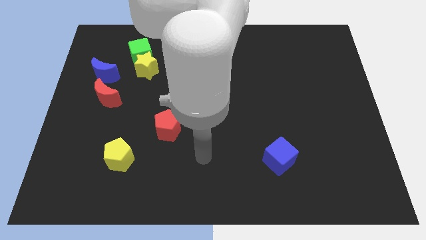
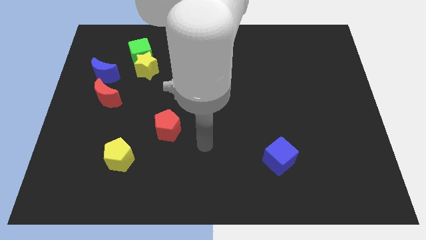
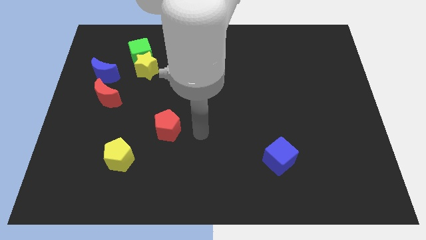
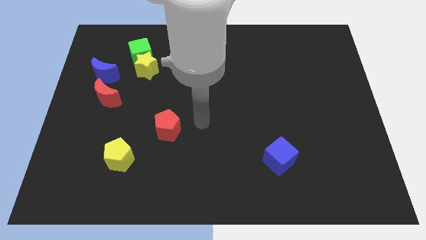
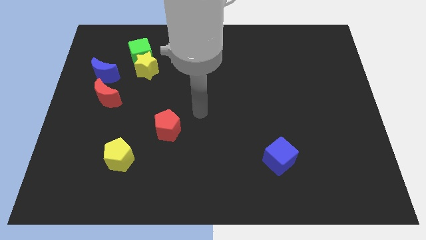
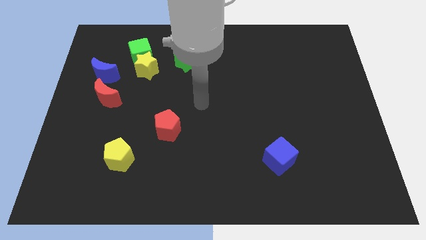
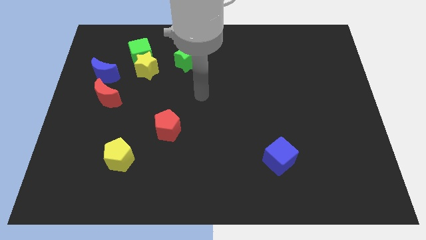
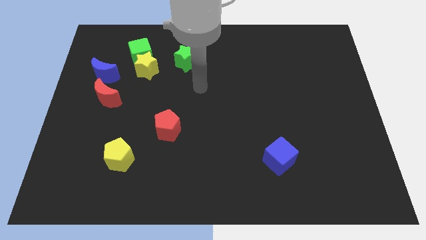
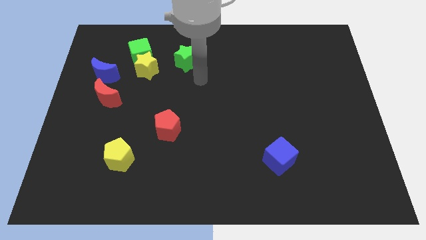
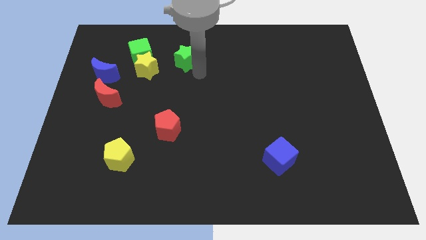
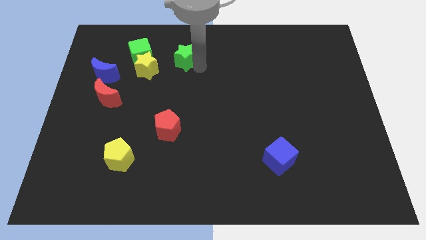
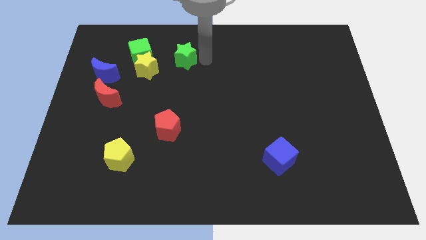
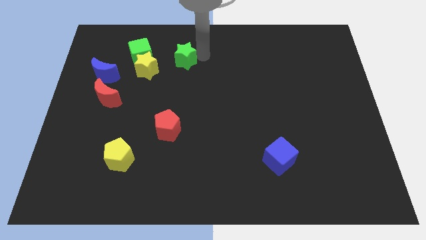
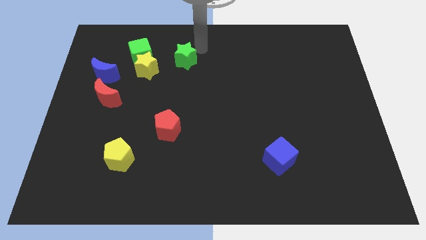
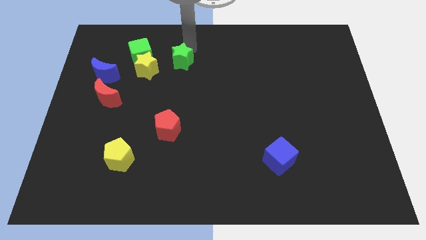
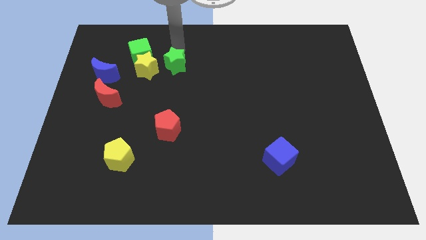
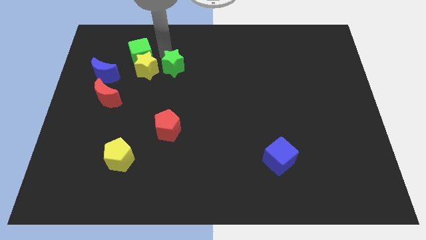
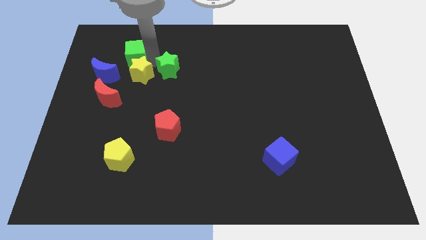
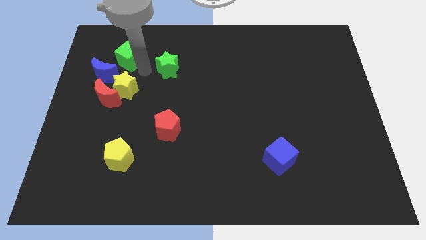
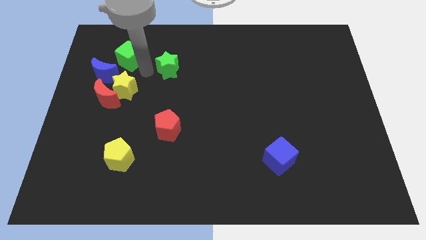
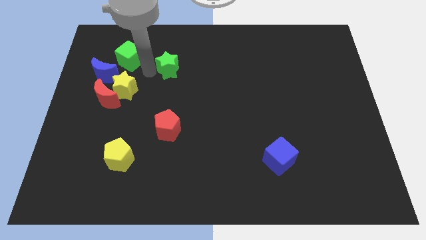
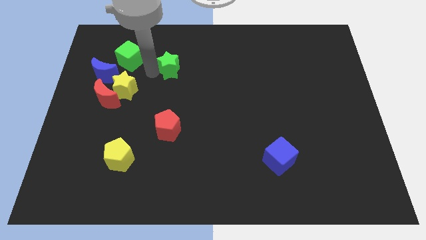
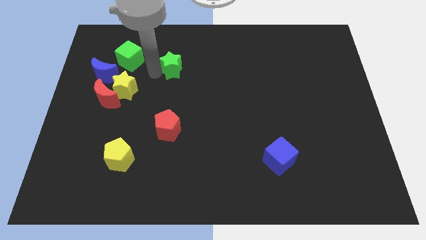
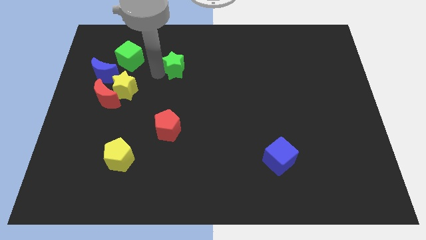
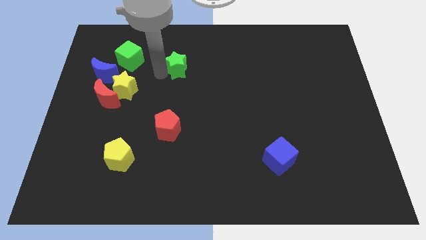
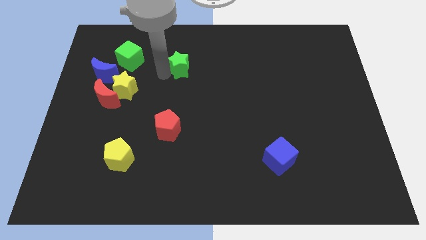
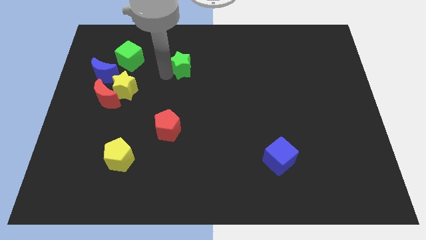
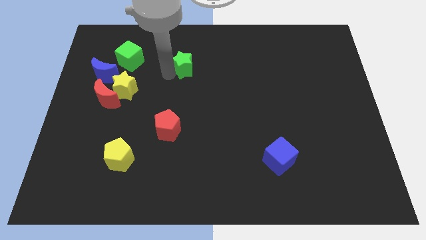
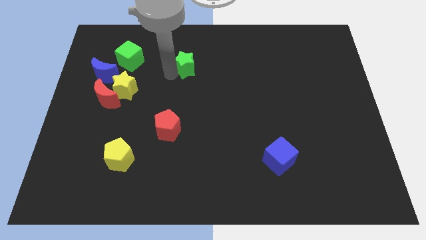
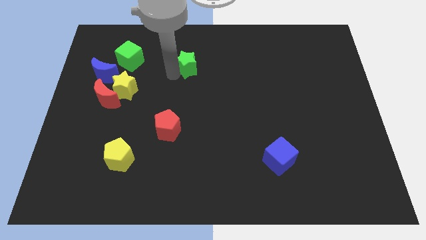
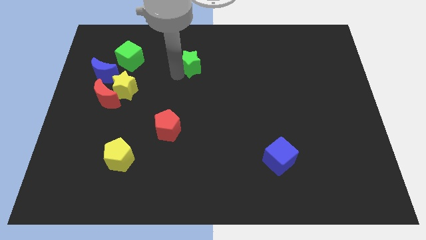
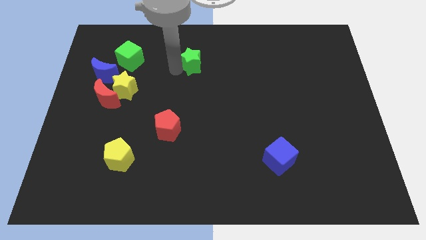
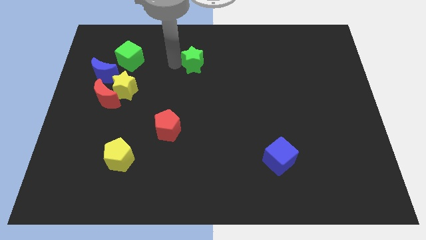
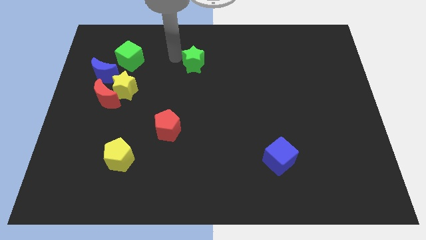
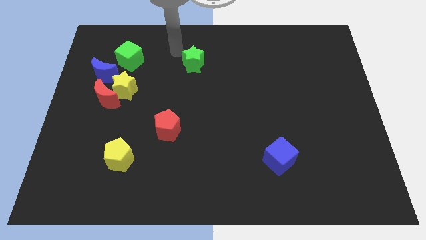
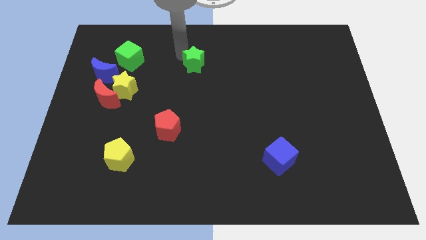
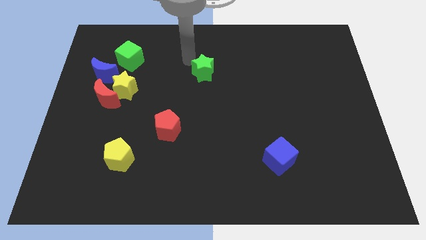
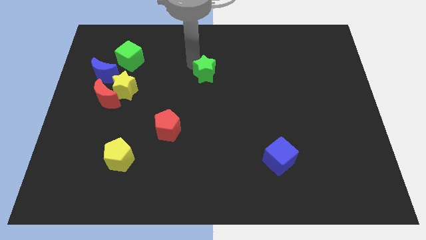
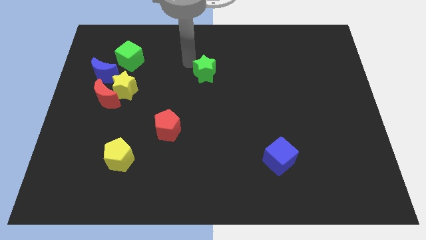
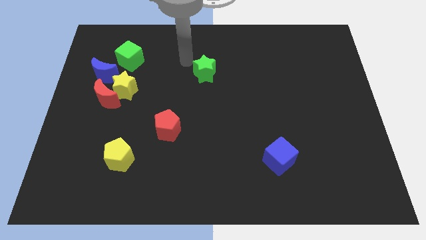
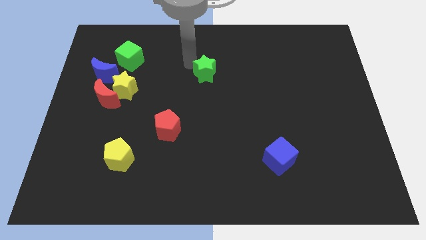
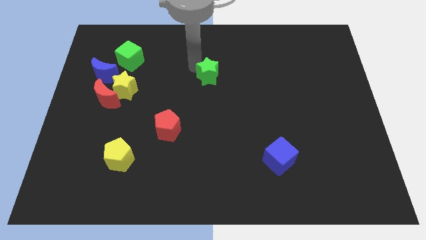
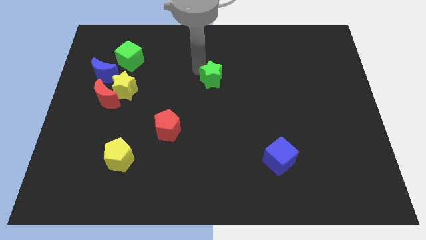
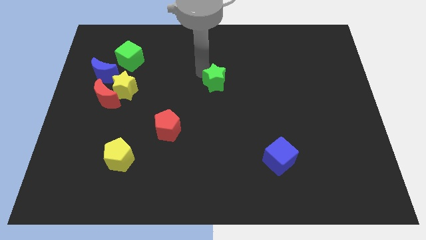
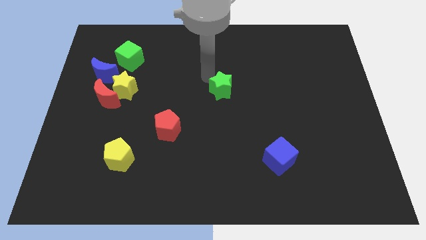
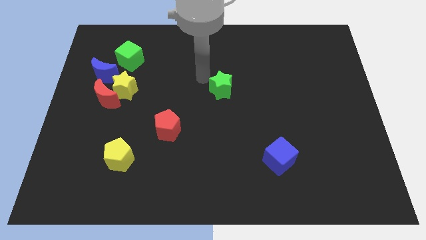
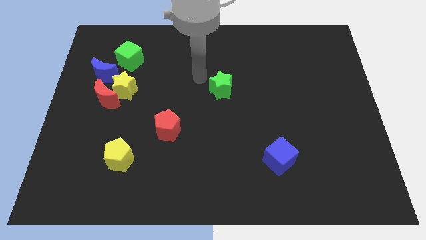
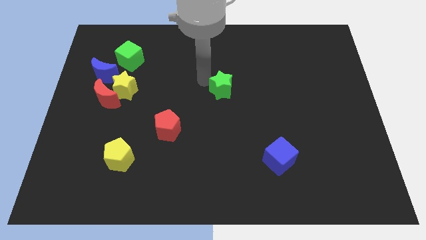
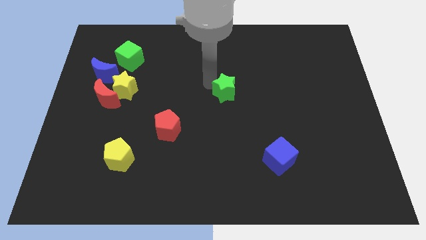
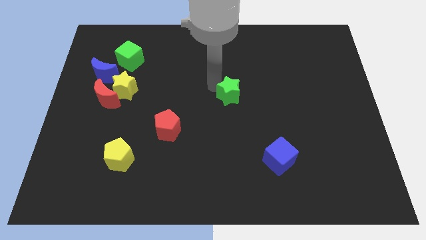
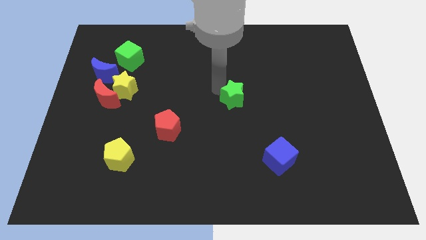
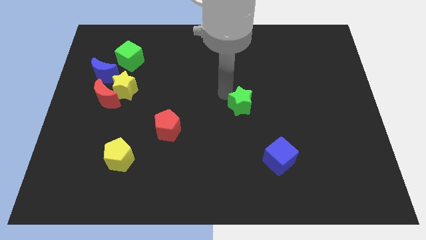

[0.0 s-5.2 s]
slide the green star diagonally downwards and right

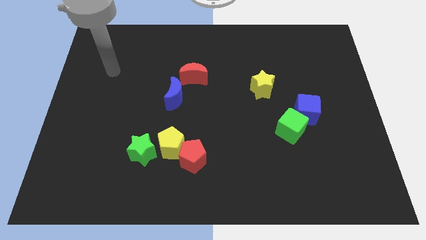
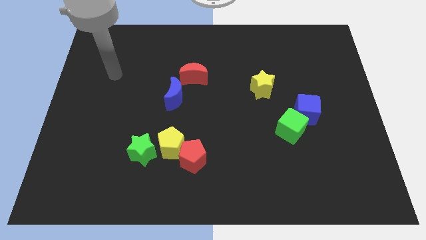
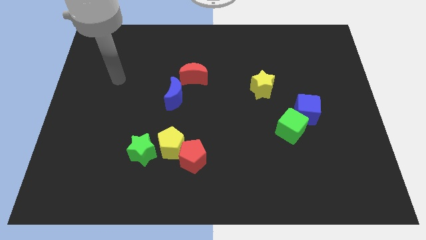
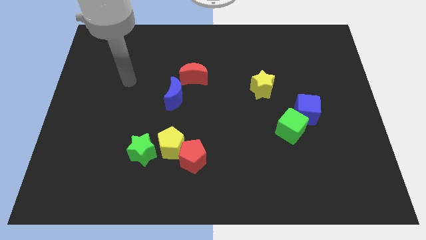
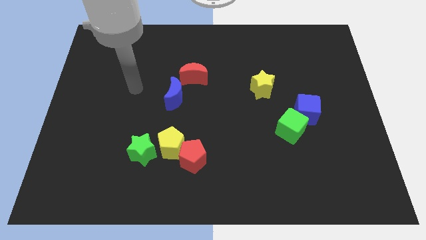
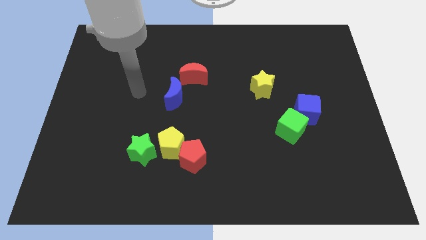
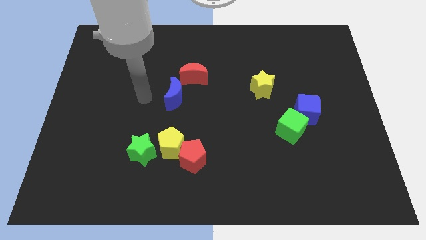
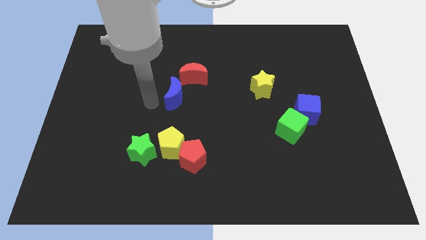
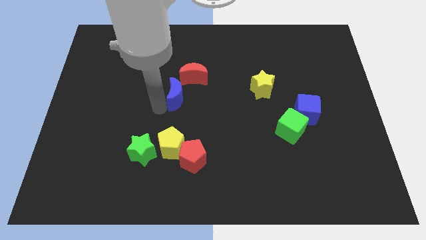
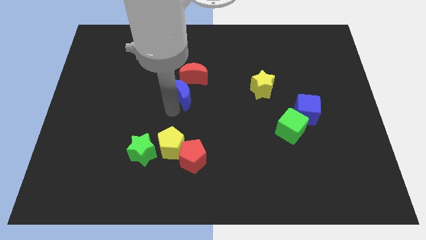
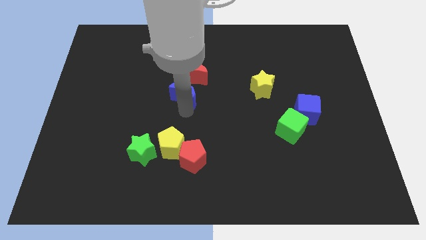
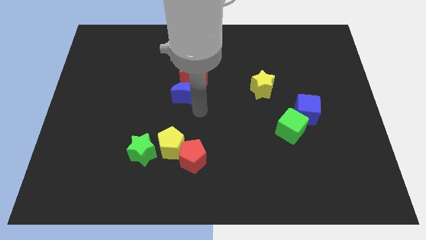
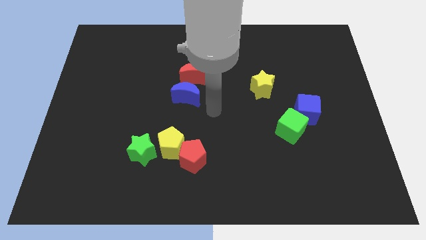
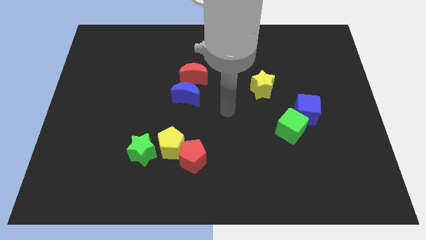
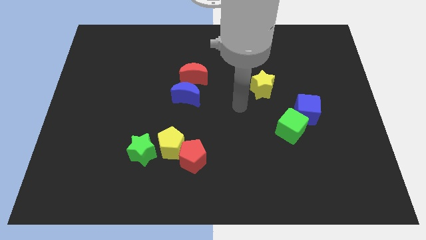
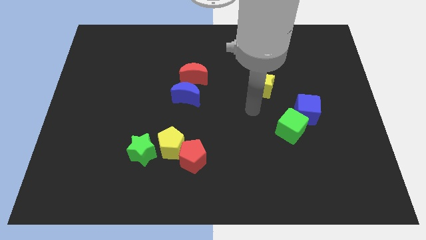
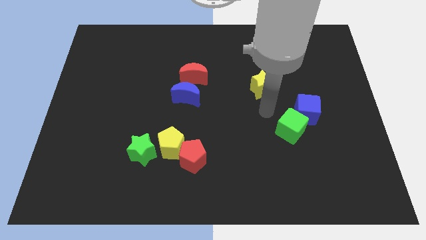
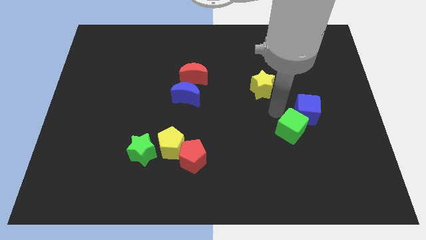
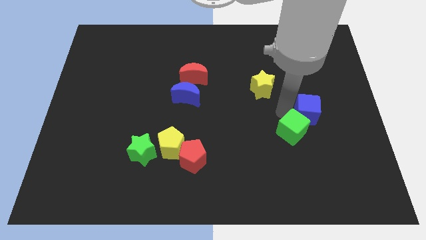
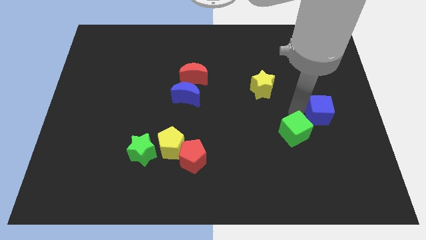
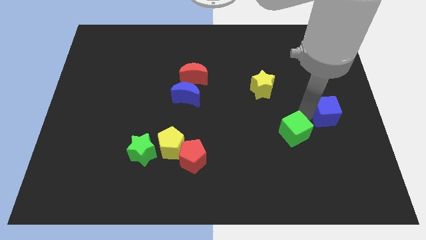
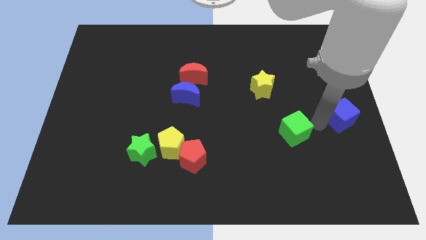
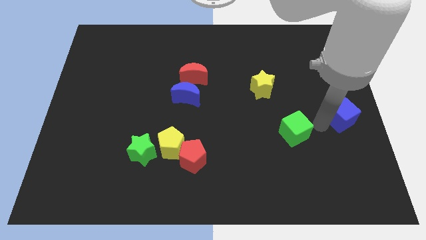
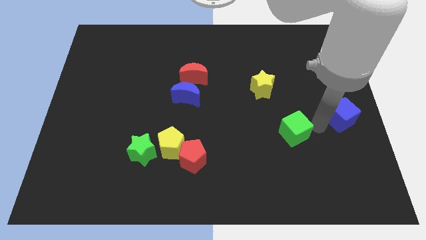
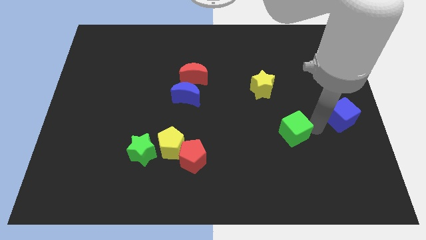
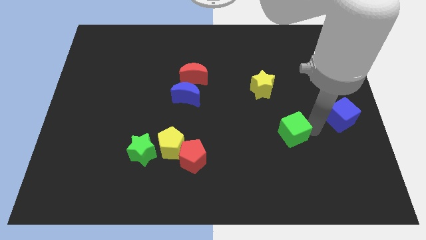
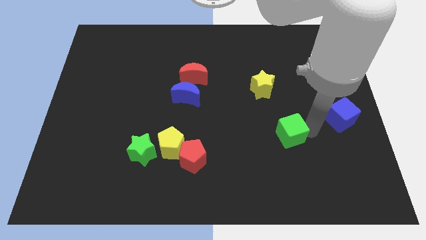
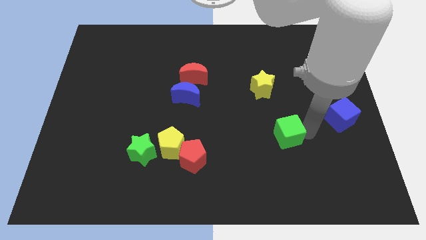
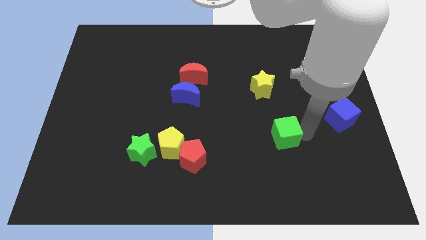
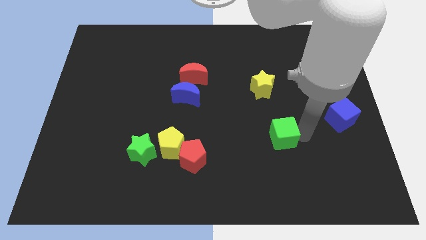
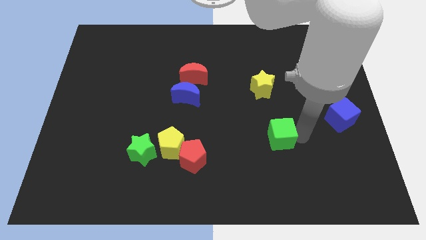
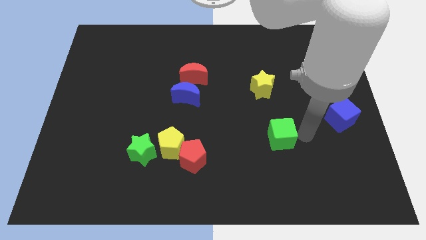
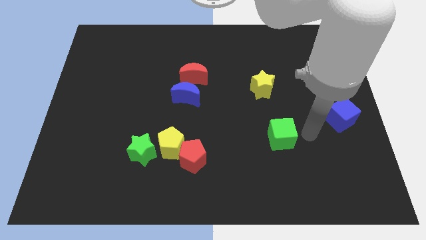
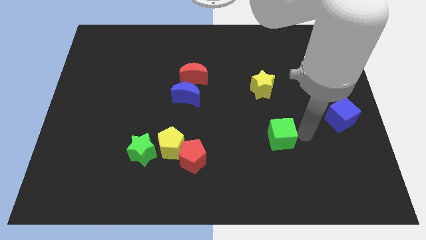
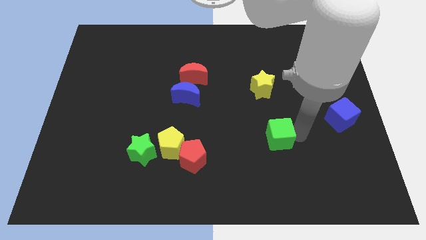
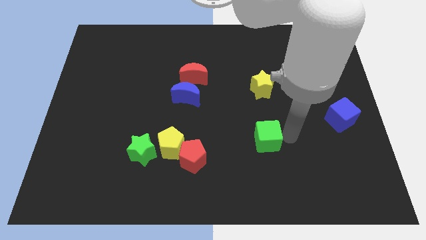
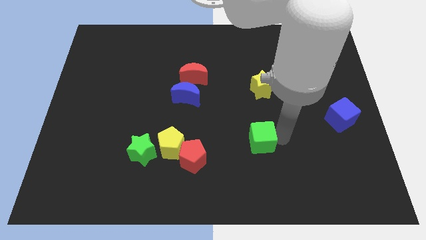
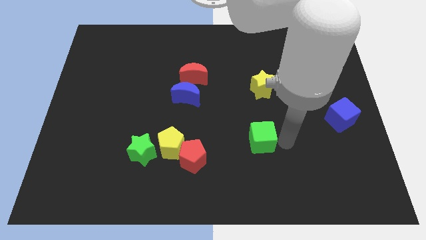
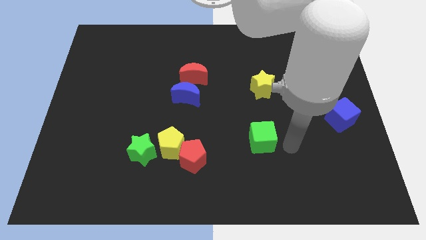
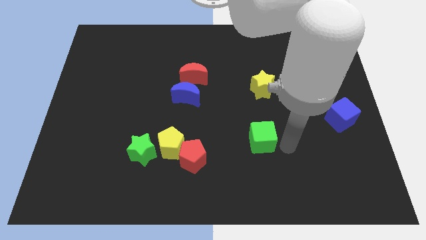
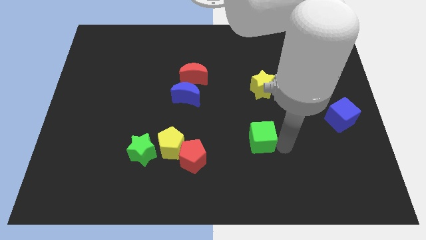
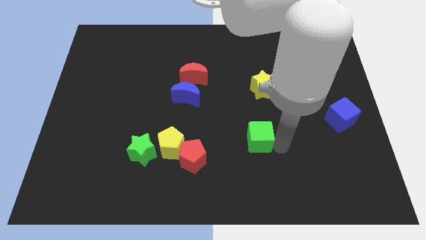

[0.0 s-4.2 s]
slightly move the green cube left
